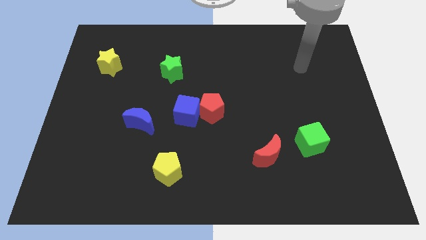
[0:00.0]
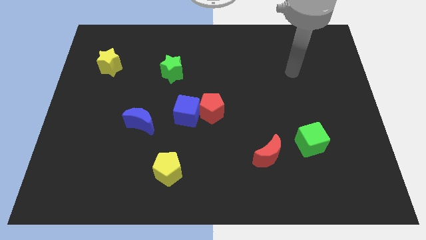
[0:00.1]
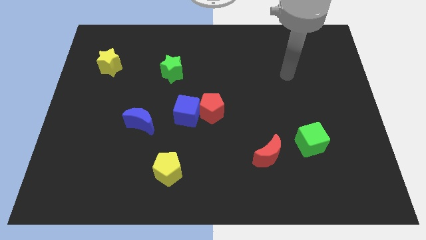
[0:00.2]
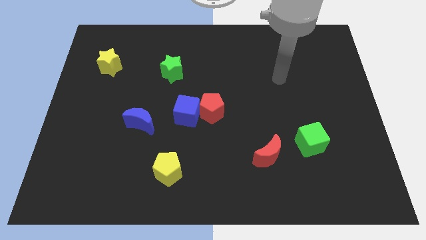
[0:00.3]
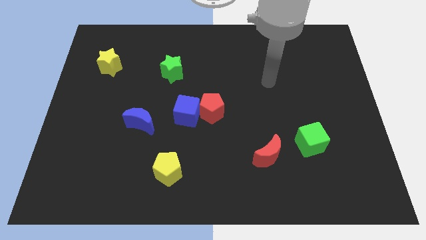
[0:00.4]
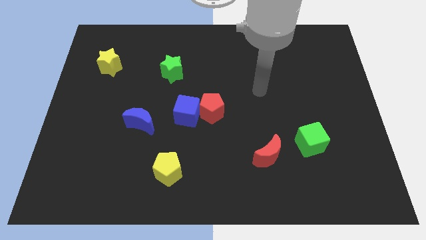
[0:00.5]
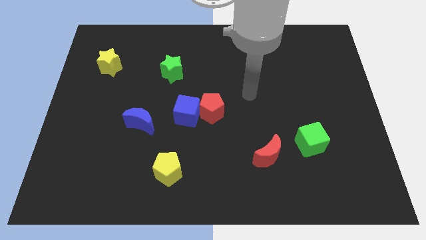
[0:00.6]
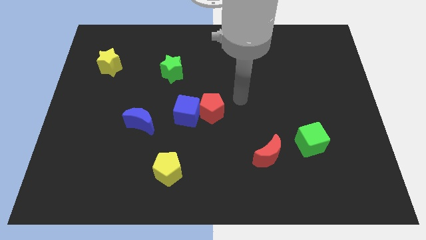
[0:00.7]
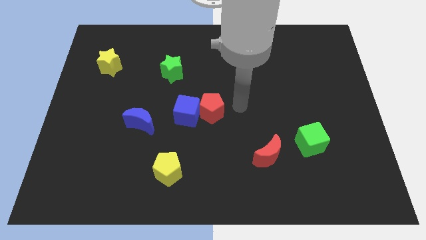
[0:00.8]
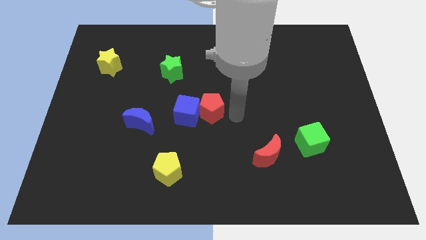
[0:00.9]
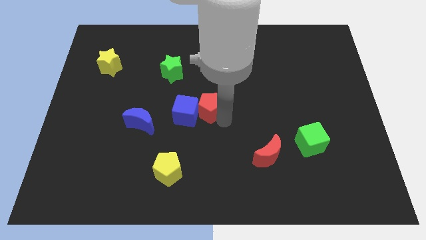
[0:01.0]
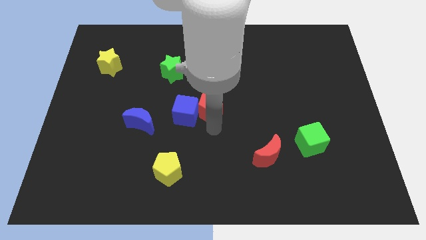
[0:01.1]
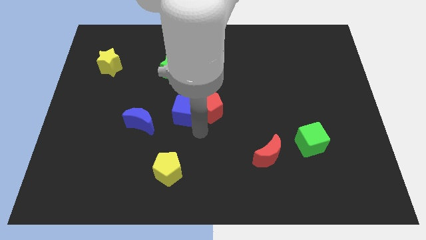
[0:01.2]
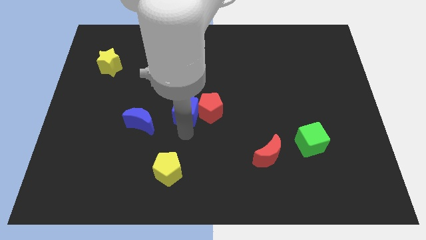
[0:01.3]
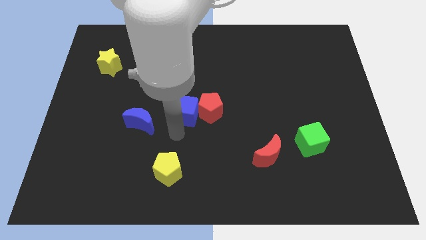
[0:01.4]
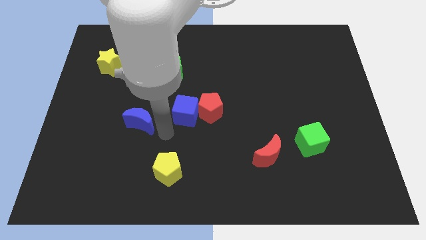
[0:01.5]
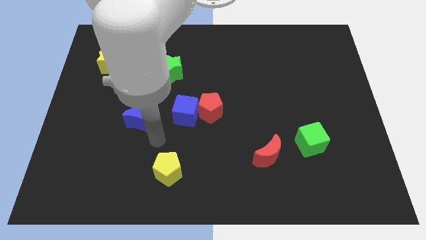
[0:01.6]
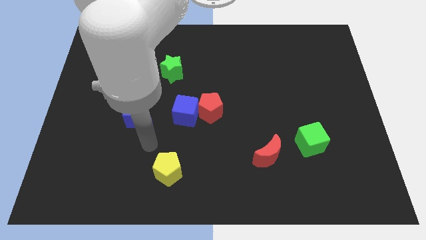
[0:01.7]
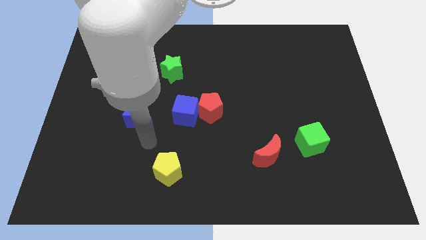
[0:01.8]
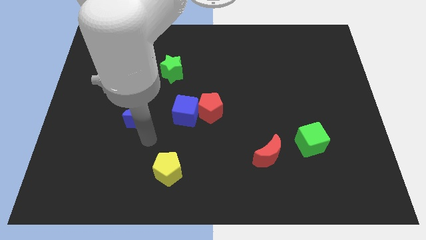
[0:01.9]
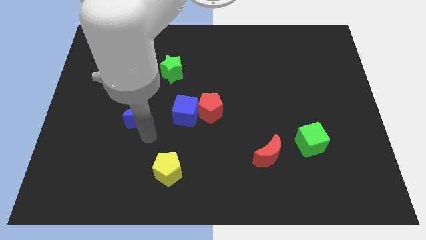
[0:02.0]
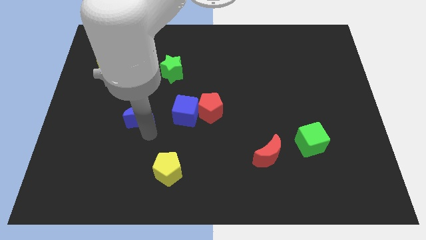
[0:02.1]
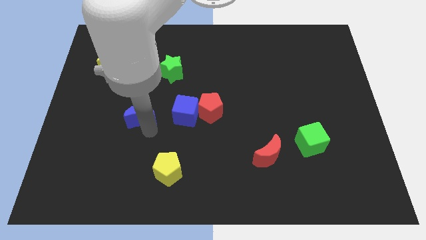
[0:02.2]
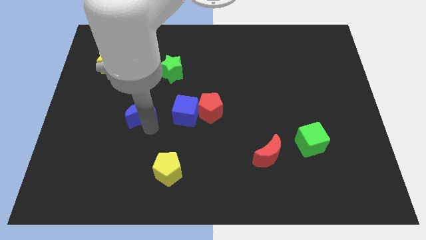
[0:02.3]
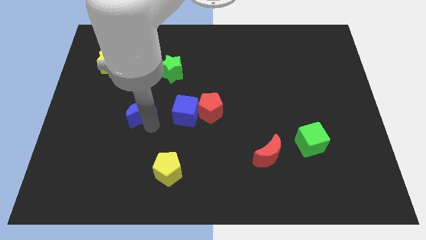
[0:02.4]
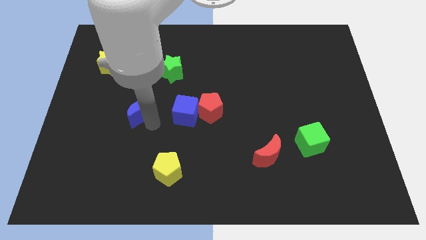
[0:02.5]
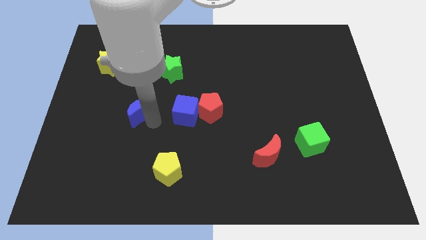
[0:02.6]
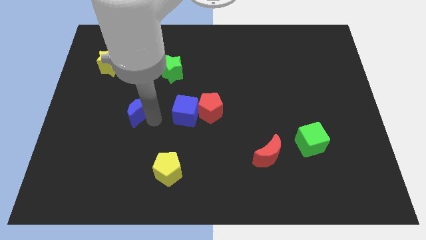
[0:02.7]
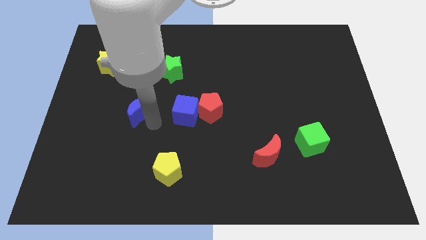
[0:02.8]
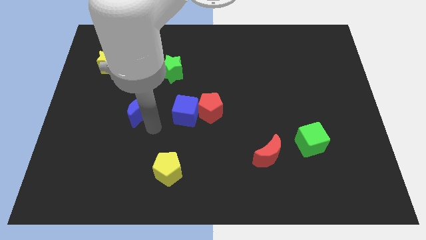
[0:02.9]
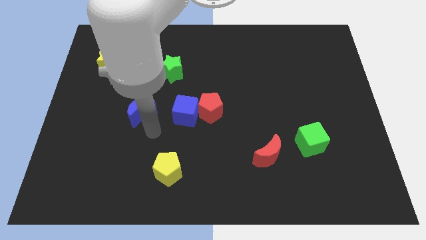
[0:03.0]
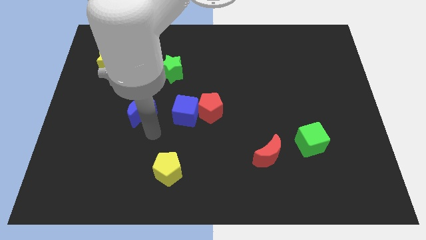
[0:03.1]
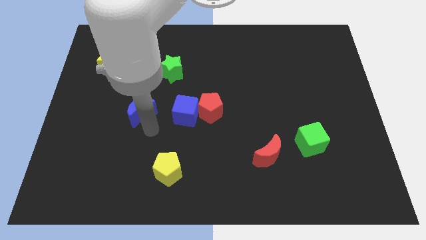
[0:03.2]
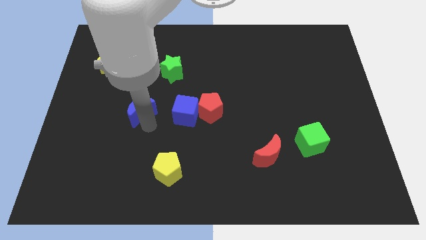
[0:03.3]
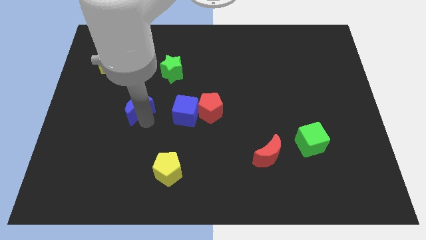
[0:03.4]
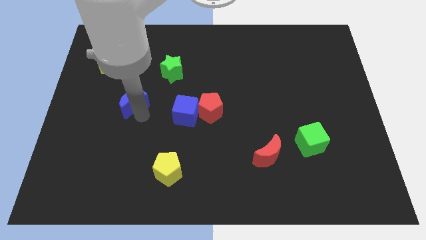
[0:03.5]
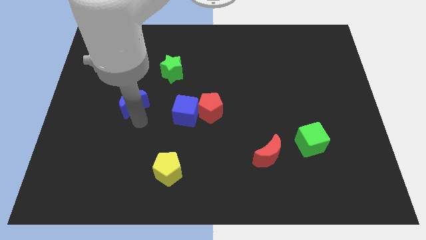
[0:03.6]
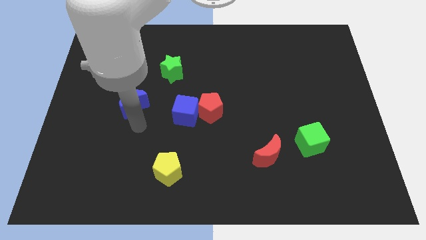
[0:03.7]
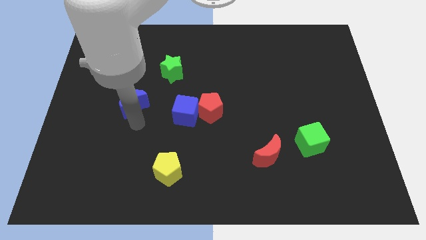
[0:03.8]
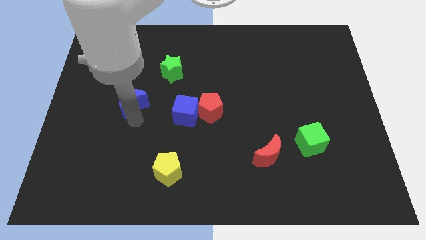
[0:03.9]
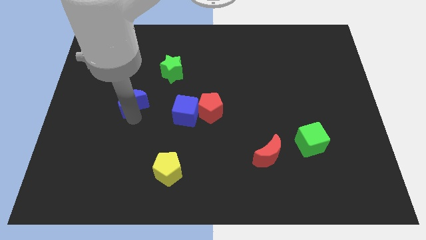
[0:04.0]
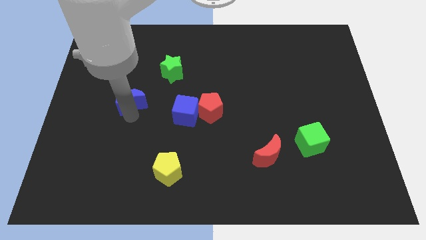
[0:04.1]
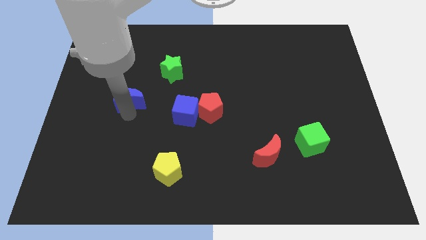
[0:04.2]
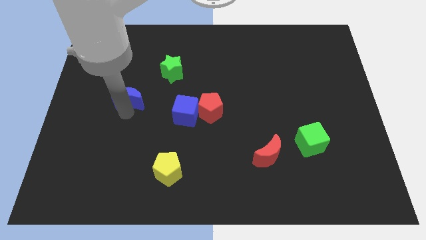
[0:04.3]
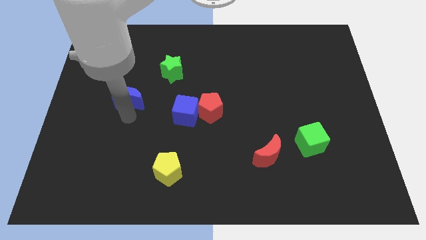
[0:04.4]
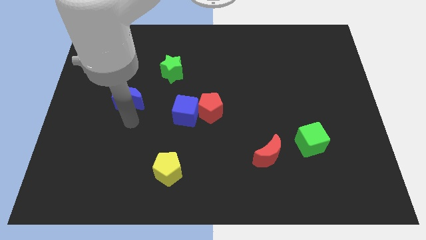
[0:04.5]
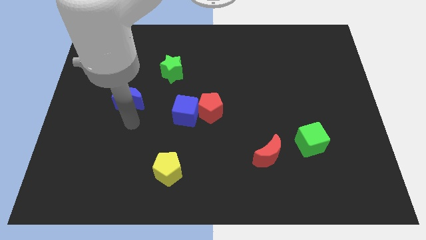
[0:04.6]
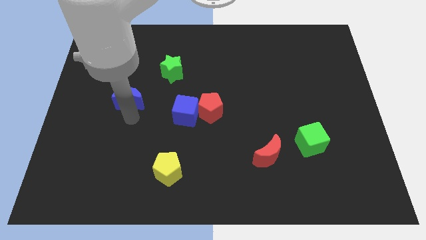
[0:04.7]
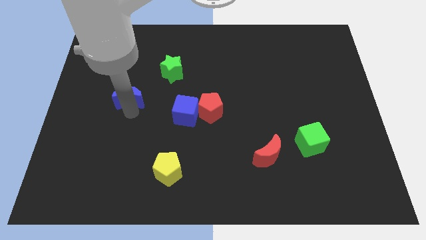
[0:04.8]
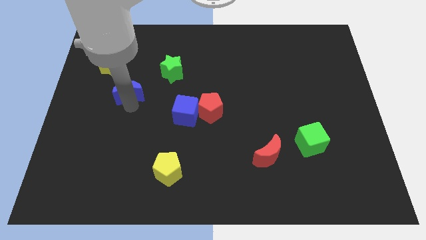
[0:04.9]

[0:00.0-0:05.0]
move the blue moon to the bottom right side of the yellow star

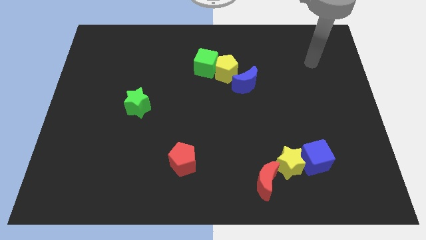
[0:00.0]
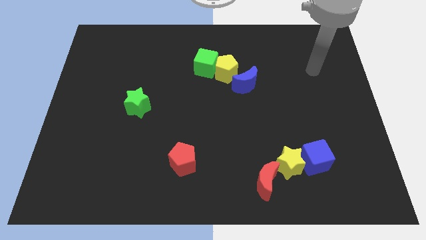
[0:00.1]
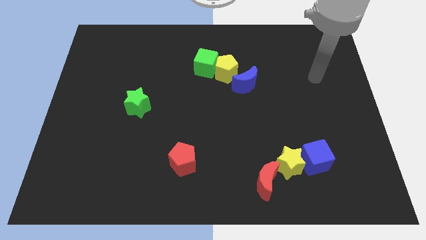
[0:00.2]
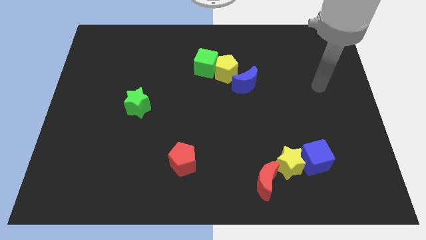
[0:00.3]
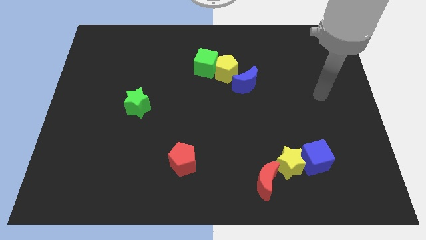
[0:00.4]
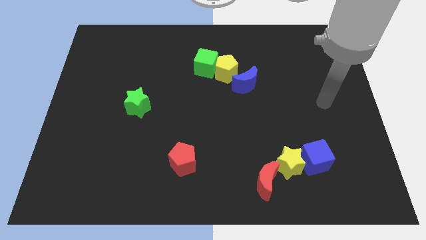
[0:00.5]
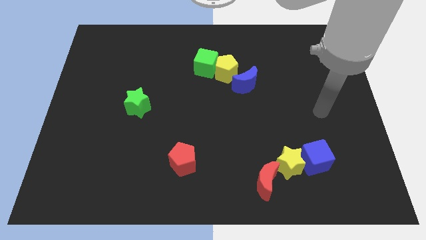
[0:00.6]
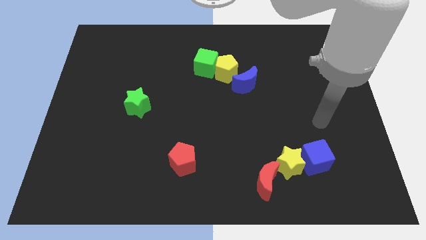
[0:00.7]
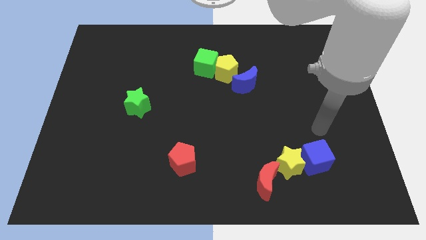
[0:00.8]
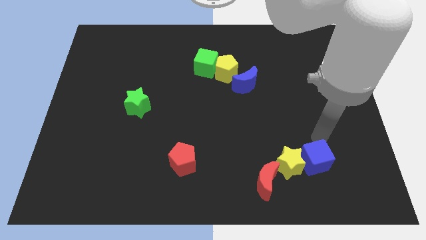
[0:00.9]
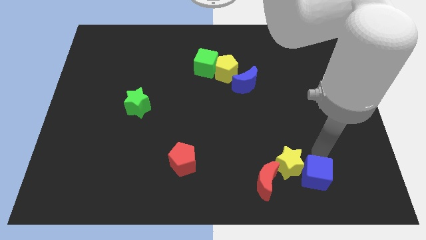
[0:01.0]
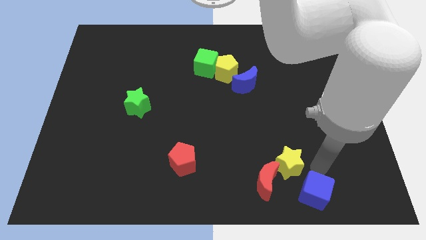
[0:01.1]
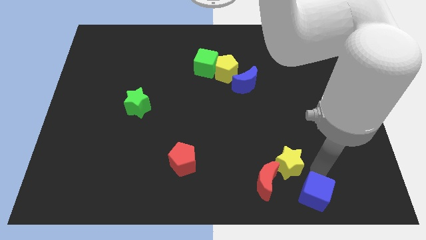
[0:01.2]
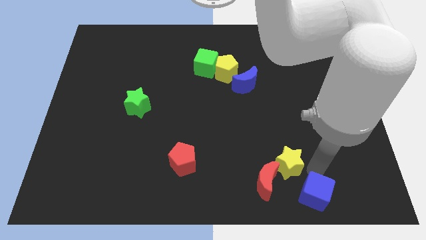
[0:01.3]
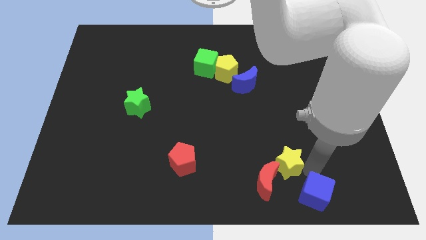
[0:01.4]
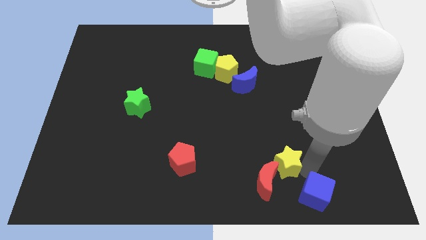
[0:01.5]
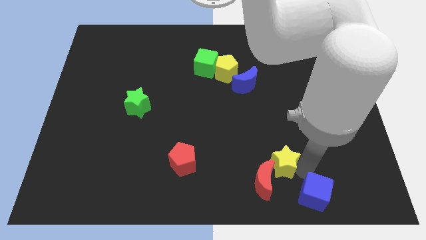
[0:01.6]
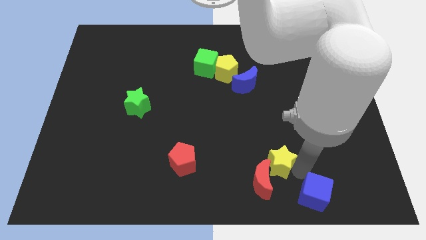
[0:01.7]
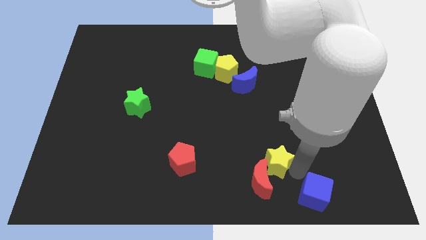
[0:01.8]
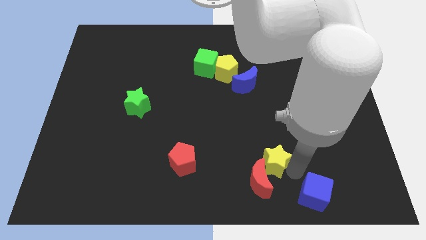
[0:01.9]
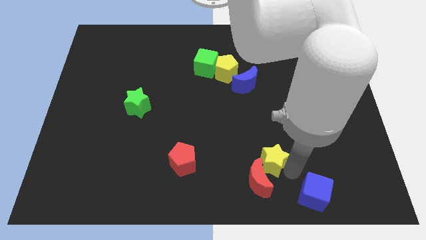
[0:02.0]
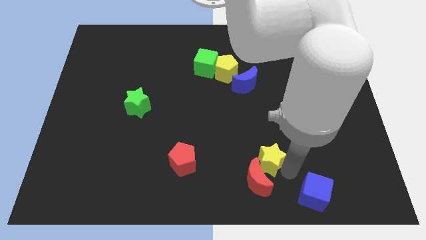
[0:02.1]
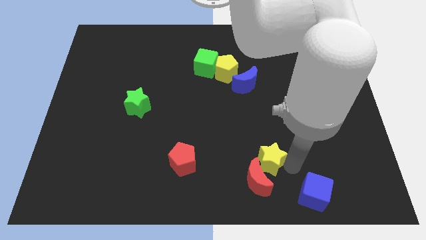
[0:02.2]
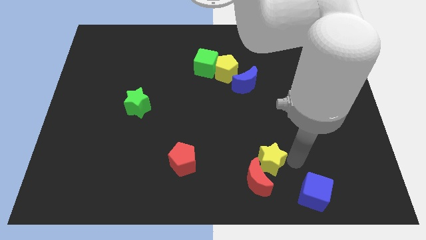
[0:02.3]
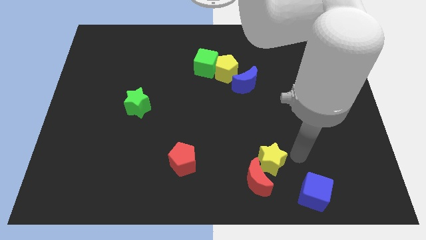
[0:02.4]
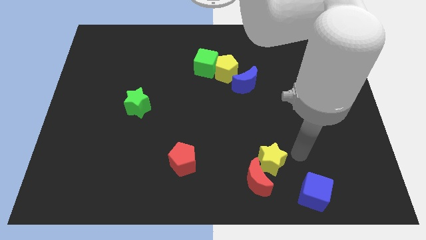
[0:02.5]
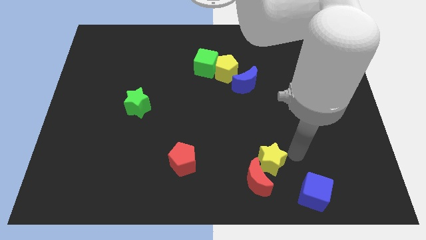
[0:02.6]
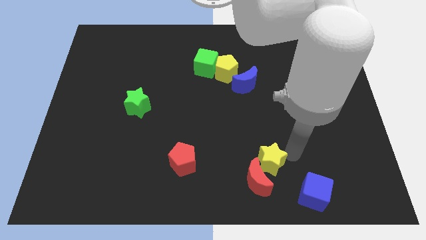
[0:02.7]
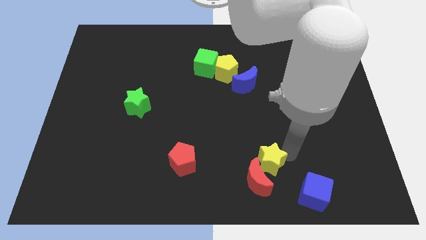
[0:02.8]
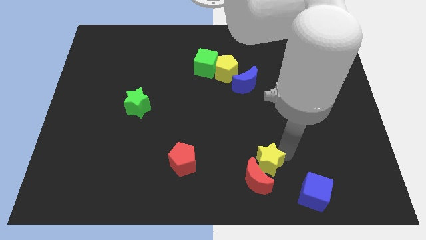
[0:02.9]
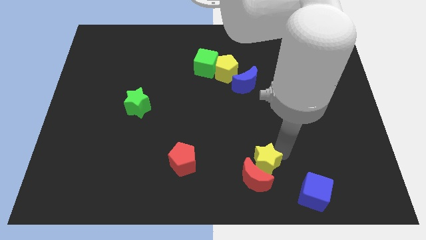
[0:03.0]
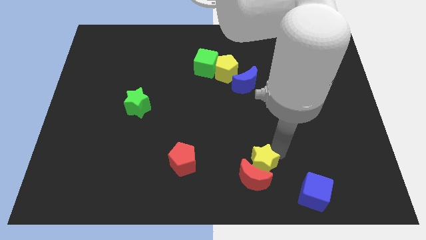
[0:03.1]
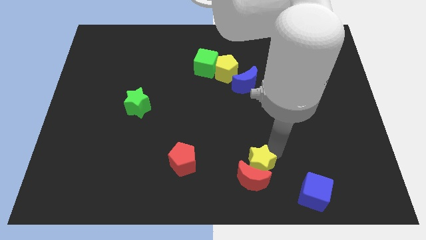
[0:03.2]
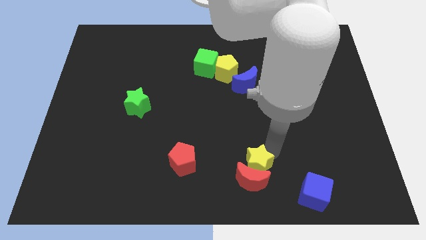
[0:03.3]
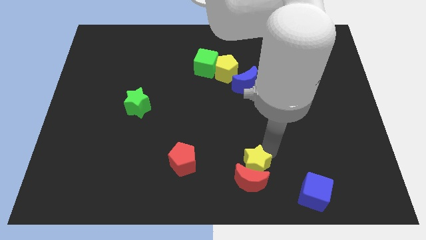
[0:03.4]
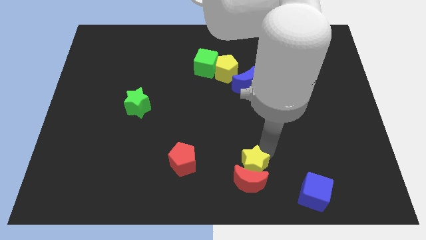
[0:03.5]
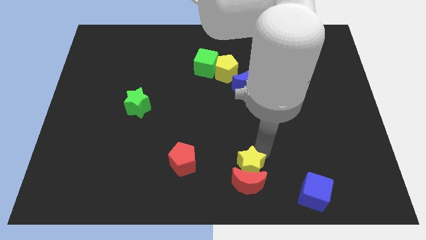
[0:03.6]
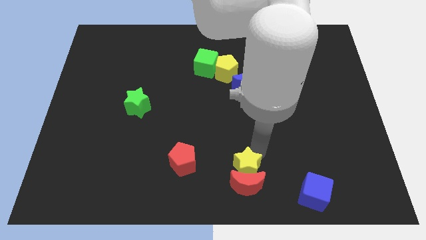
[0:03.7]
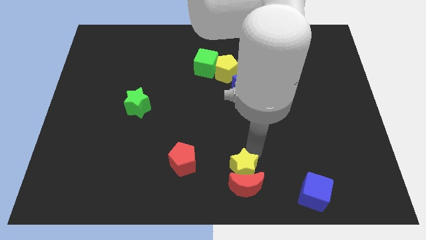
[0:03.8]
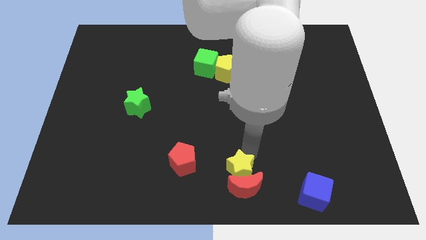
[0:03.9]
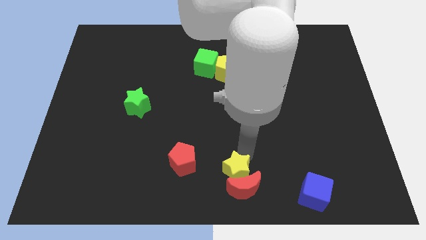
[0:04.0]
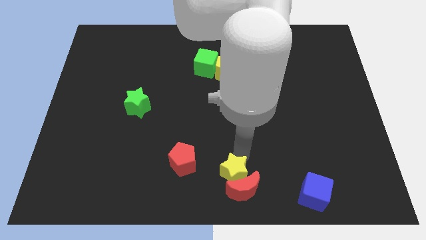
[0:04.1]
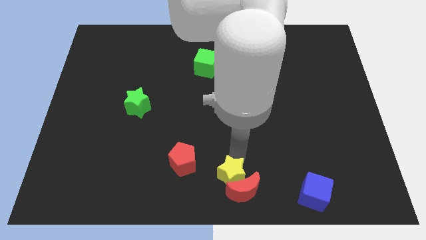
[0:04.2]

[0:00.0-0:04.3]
push the yellow star to the left side of the red moon
